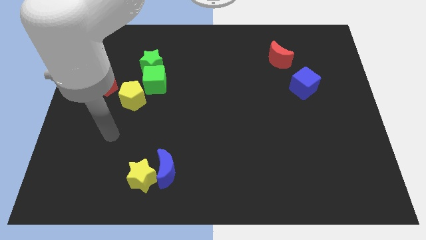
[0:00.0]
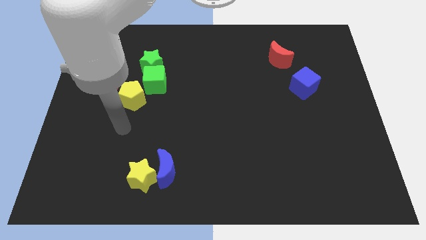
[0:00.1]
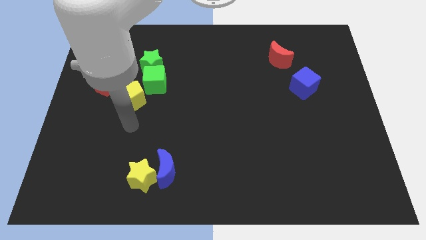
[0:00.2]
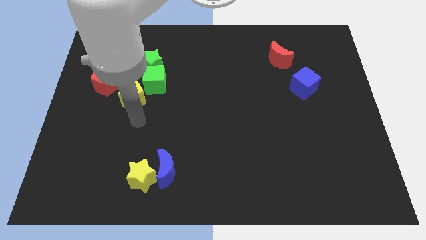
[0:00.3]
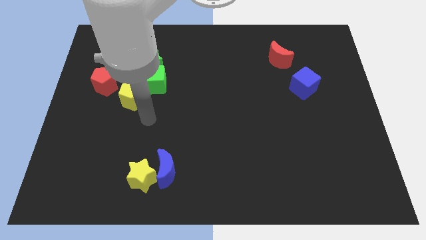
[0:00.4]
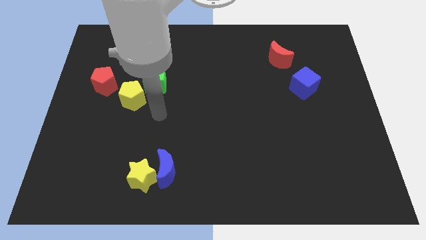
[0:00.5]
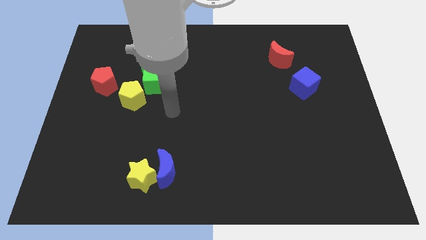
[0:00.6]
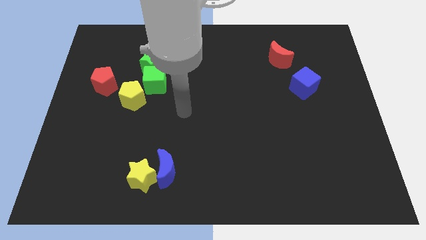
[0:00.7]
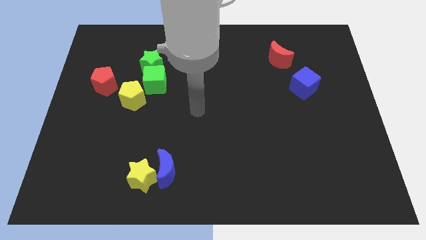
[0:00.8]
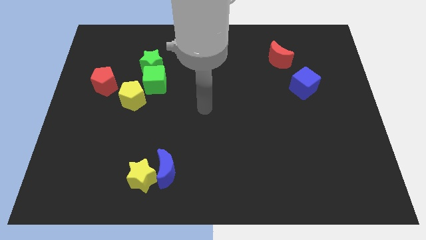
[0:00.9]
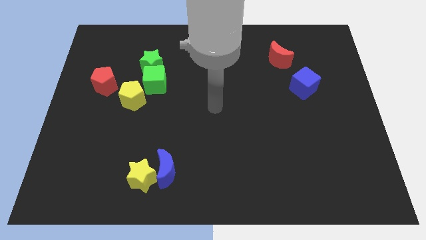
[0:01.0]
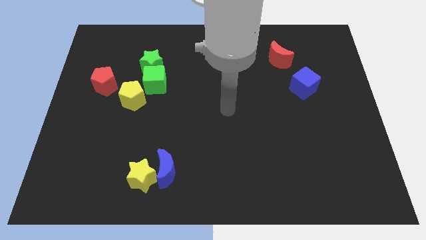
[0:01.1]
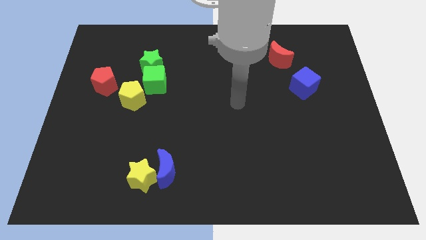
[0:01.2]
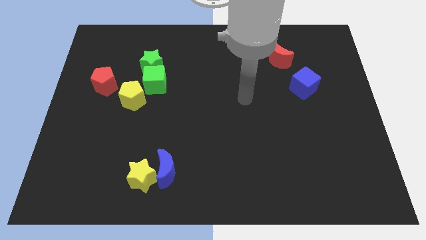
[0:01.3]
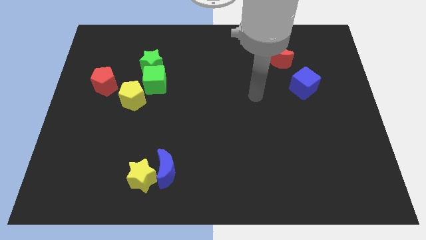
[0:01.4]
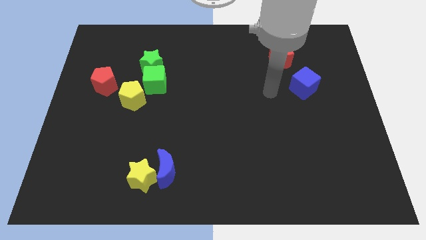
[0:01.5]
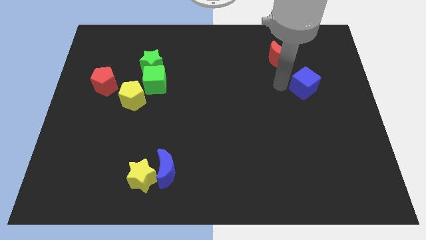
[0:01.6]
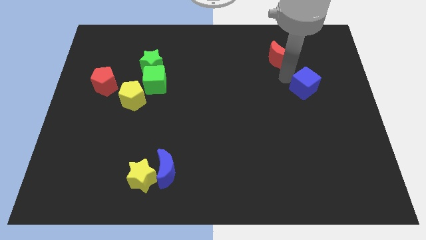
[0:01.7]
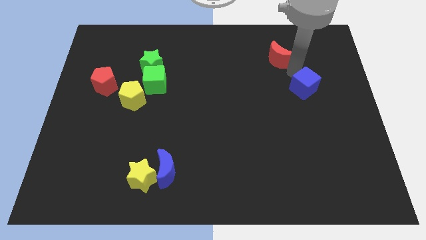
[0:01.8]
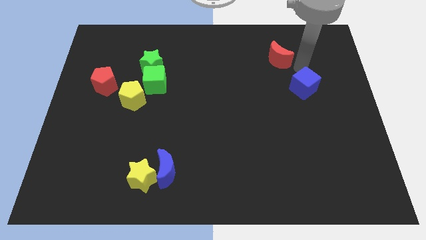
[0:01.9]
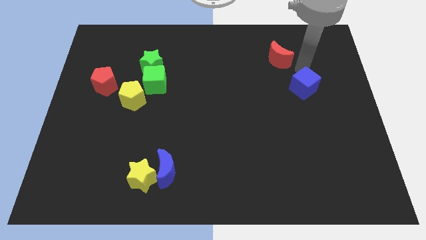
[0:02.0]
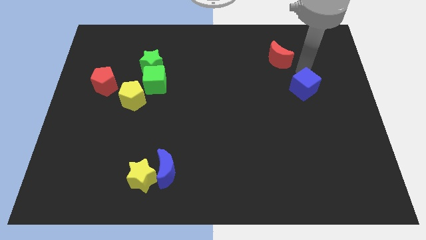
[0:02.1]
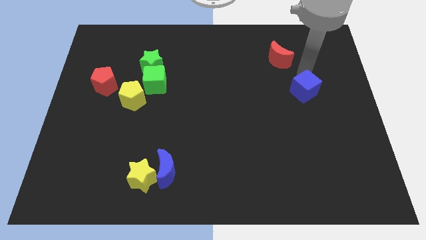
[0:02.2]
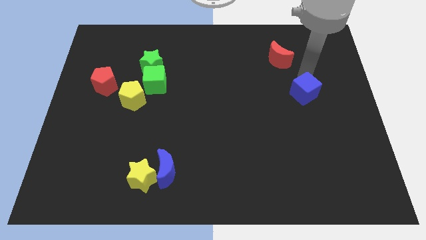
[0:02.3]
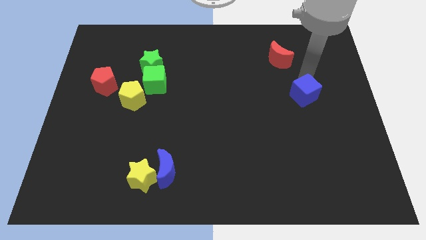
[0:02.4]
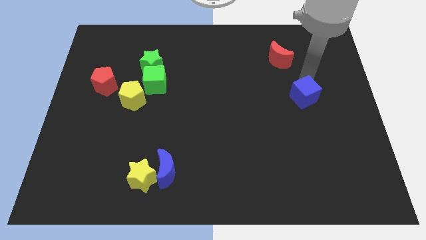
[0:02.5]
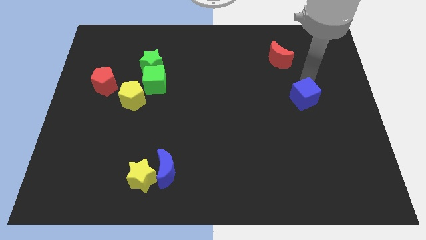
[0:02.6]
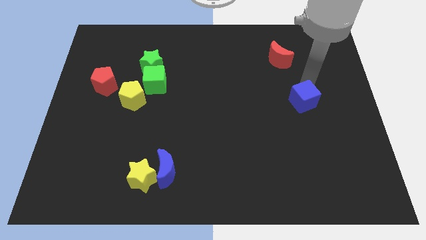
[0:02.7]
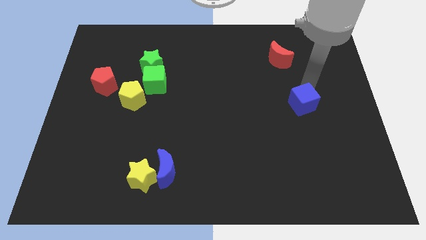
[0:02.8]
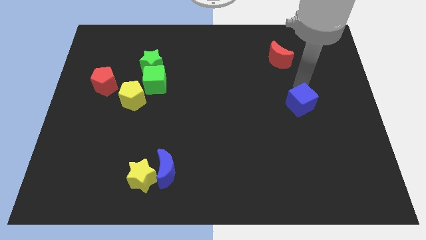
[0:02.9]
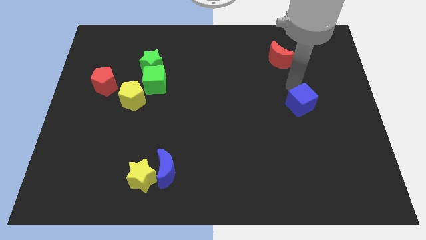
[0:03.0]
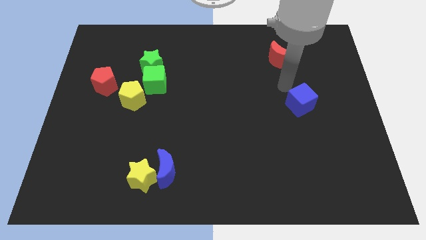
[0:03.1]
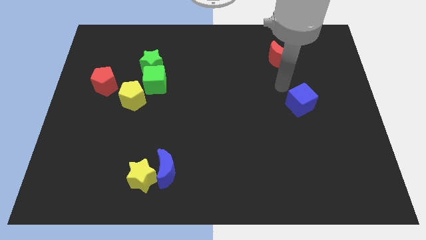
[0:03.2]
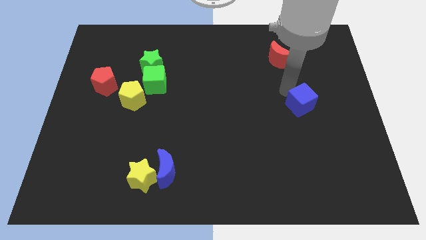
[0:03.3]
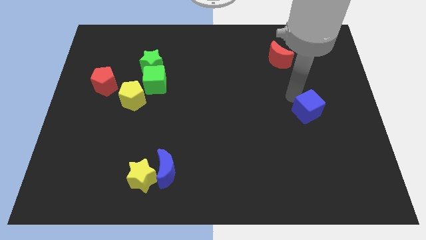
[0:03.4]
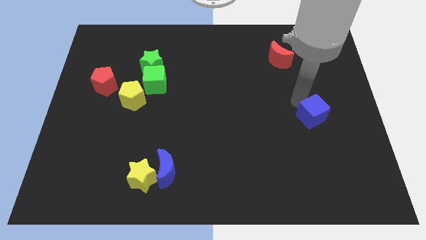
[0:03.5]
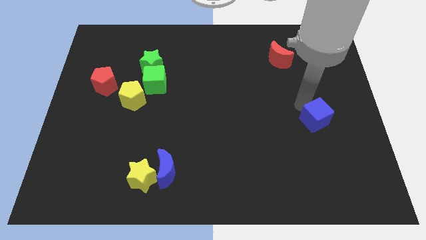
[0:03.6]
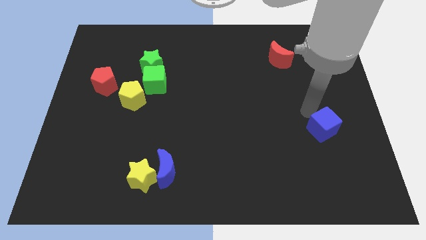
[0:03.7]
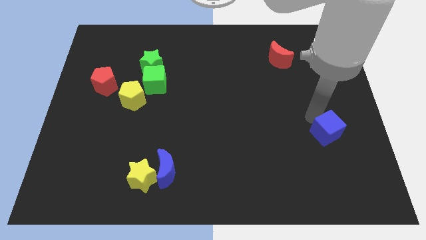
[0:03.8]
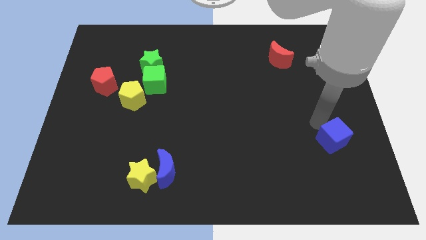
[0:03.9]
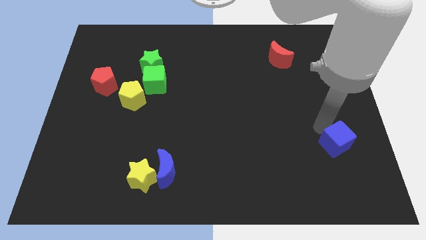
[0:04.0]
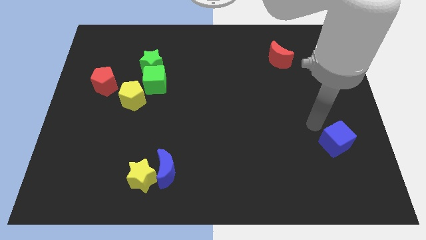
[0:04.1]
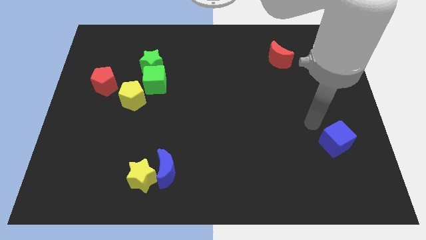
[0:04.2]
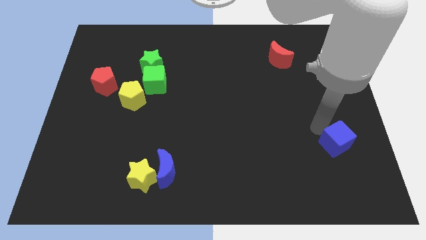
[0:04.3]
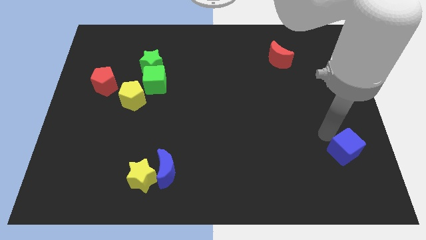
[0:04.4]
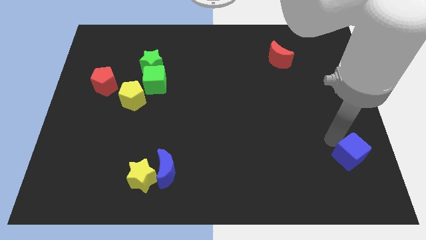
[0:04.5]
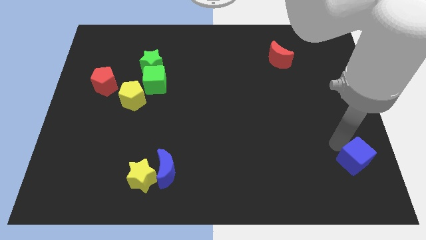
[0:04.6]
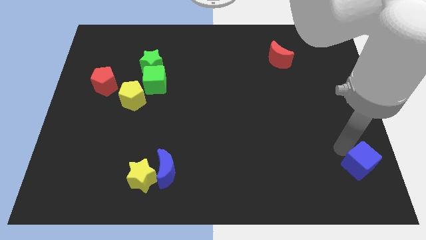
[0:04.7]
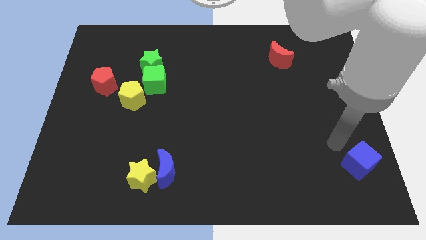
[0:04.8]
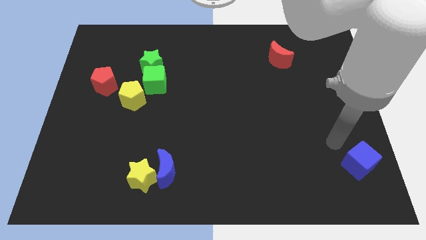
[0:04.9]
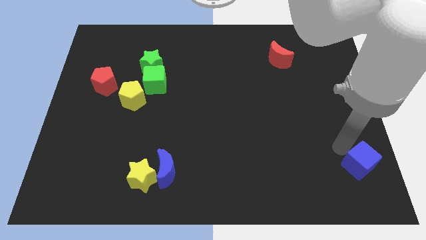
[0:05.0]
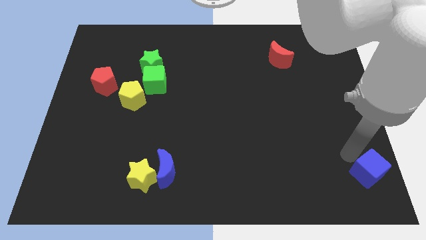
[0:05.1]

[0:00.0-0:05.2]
move the blue cube to the bottom right of the board

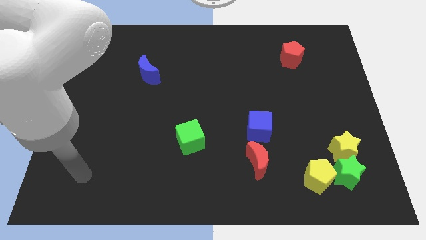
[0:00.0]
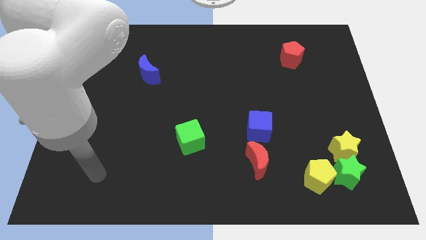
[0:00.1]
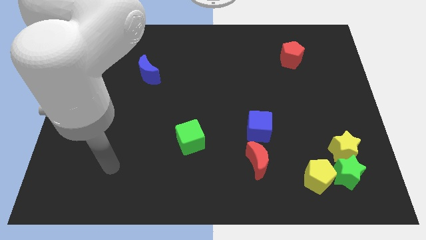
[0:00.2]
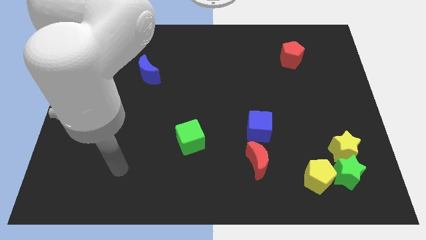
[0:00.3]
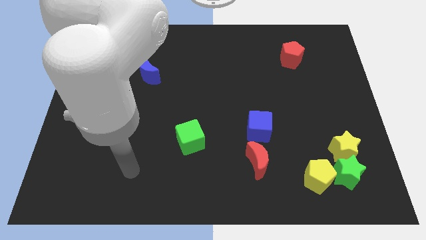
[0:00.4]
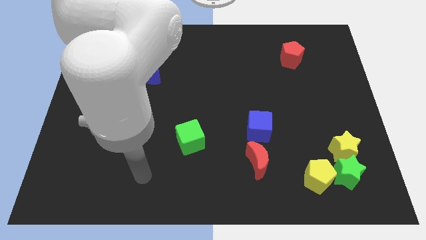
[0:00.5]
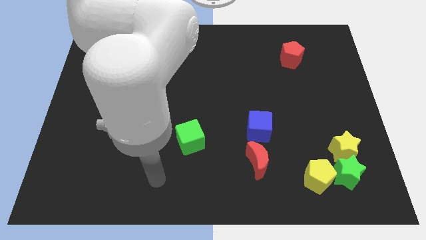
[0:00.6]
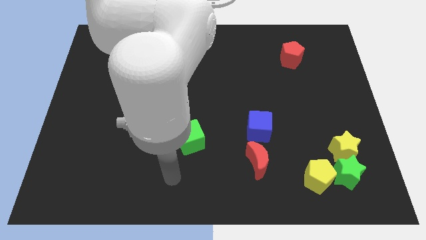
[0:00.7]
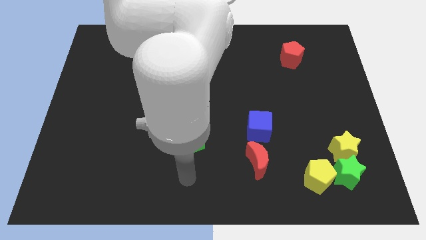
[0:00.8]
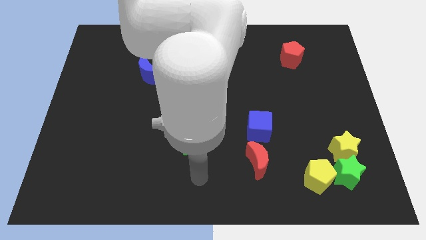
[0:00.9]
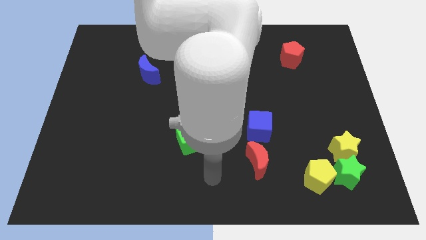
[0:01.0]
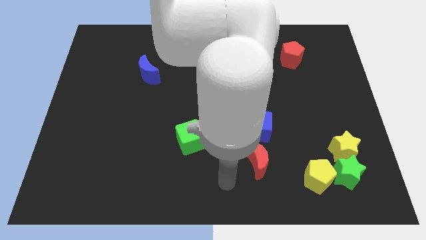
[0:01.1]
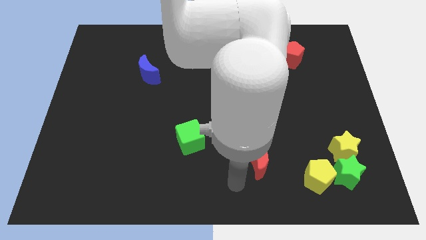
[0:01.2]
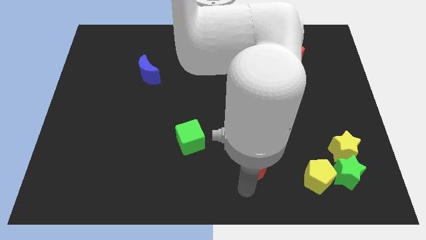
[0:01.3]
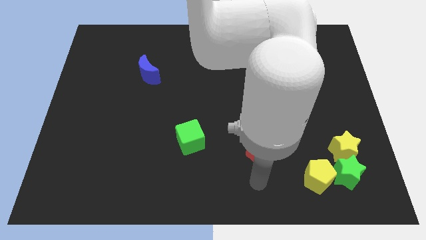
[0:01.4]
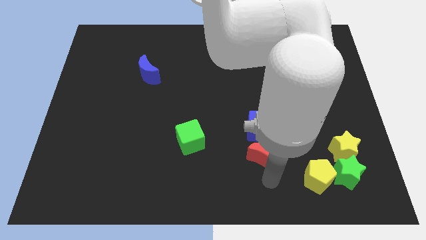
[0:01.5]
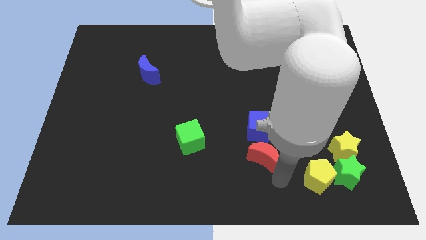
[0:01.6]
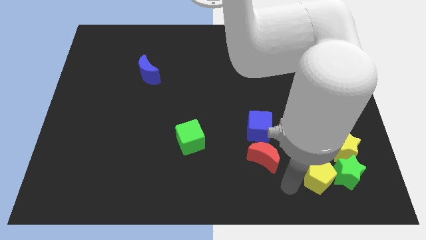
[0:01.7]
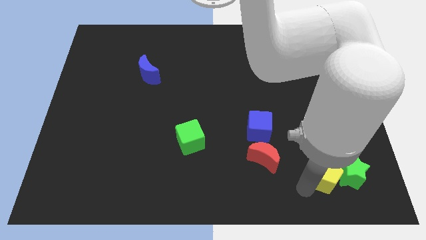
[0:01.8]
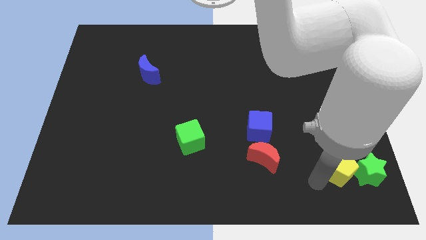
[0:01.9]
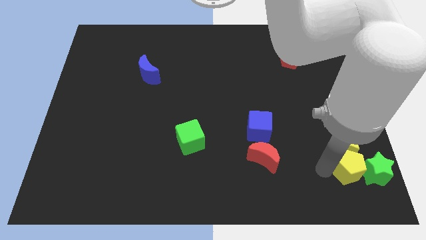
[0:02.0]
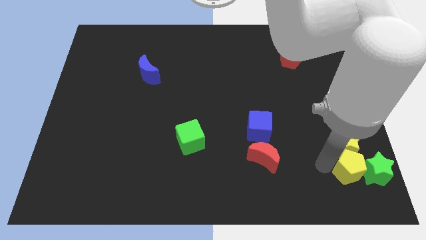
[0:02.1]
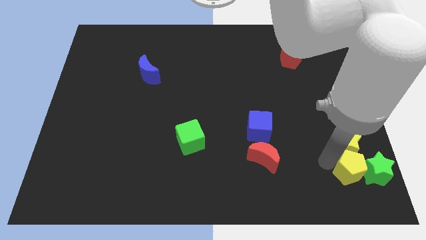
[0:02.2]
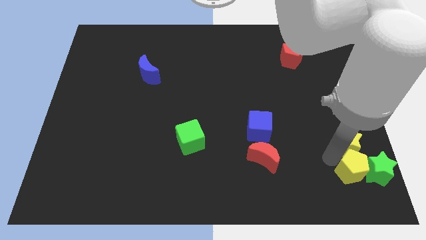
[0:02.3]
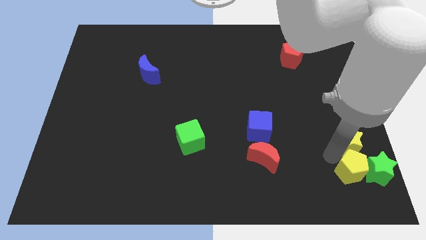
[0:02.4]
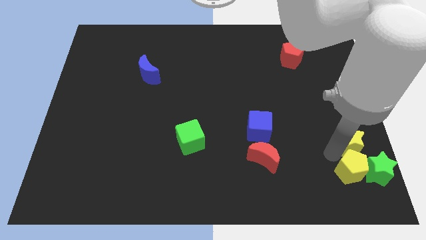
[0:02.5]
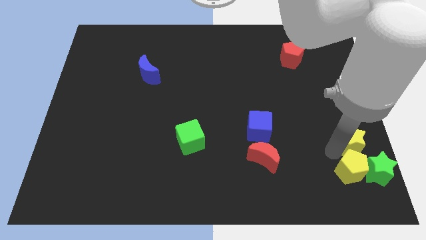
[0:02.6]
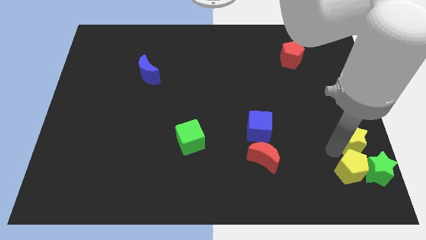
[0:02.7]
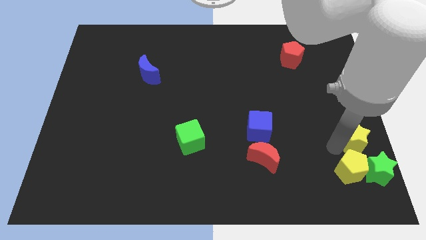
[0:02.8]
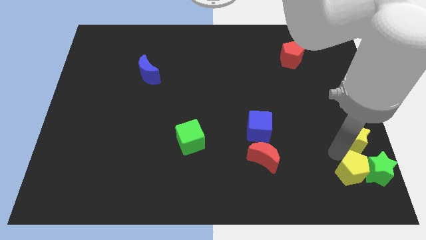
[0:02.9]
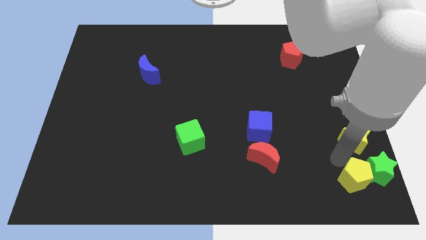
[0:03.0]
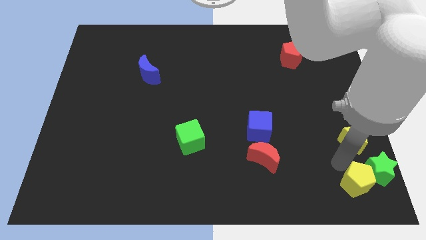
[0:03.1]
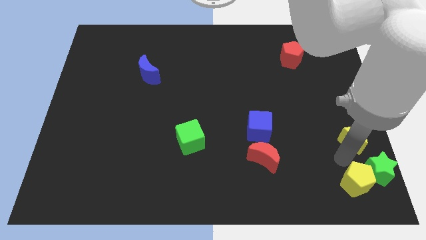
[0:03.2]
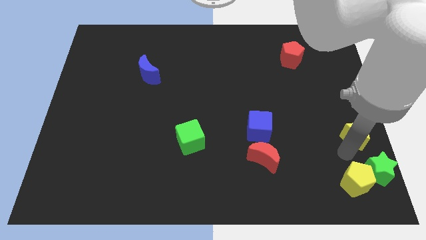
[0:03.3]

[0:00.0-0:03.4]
move the yellow star to the right side of the board
